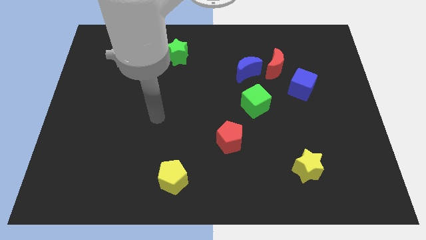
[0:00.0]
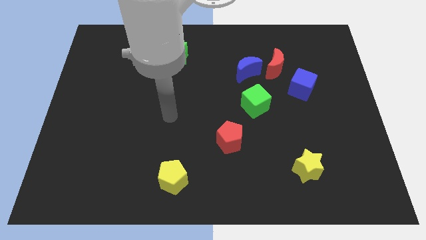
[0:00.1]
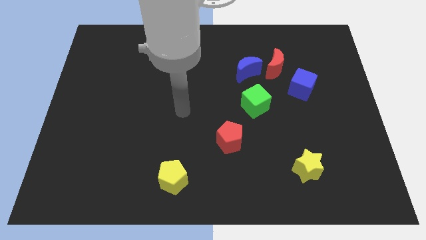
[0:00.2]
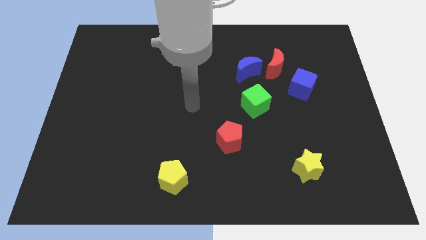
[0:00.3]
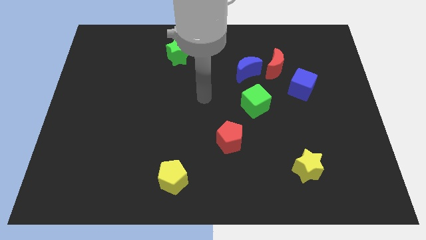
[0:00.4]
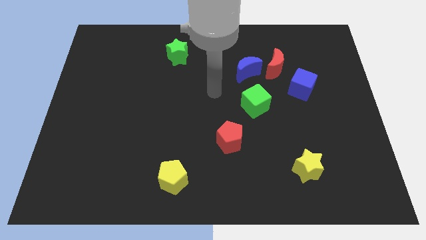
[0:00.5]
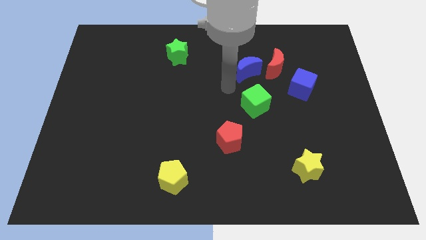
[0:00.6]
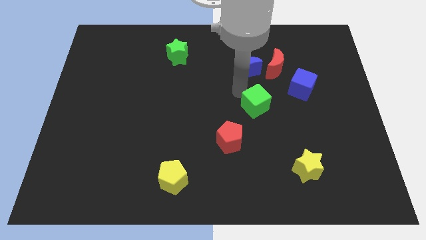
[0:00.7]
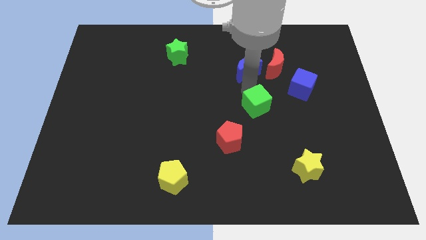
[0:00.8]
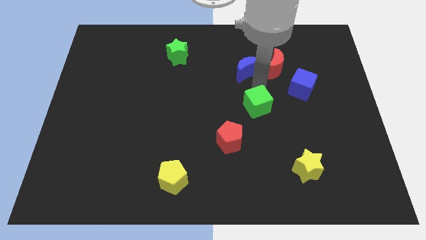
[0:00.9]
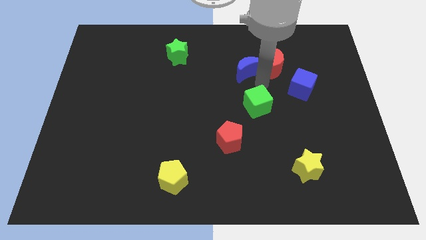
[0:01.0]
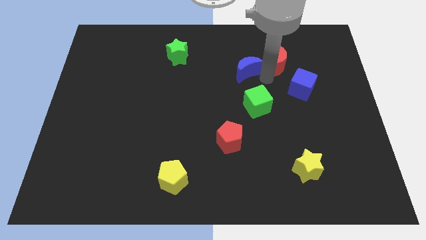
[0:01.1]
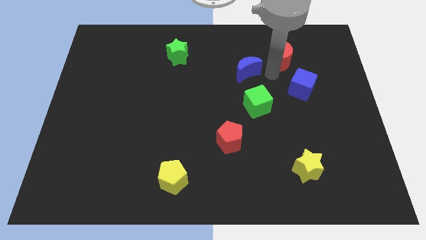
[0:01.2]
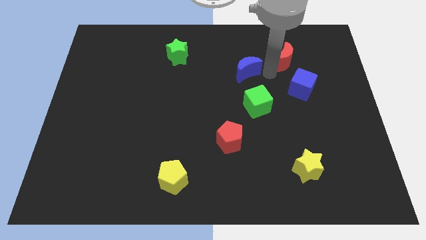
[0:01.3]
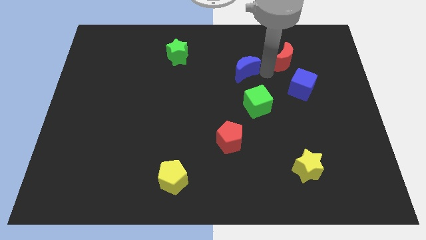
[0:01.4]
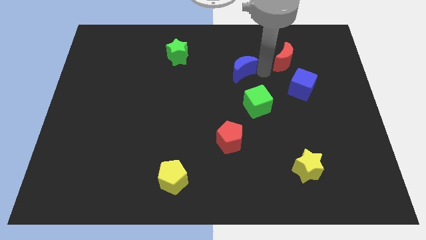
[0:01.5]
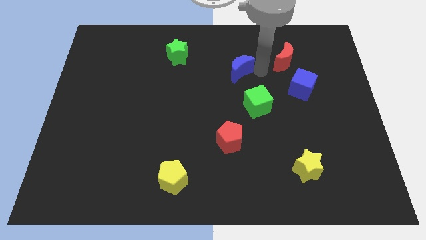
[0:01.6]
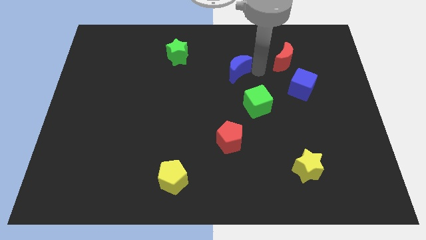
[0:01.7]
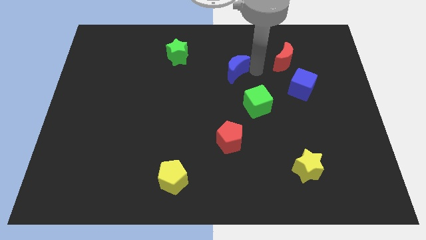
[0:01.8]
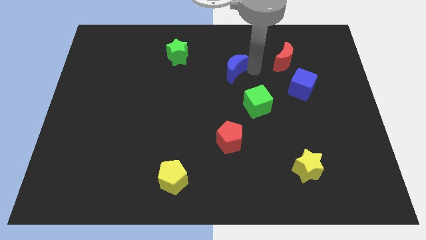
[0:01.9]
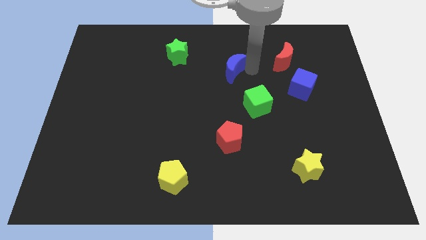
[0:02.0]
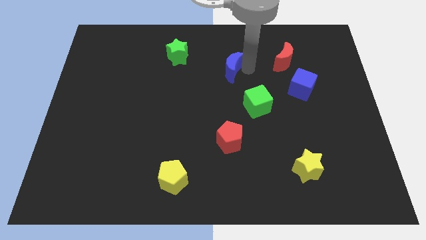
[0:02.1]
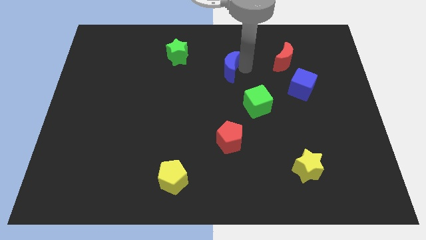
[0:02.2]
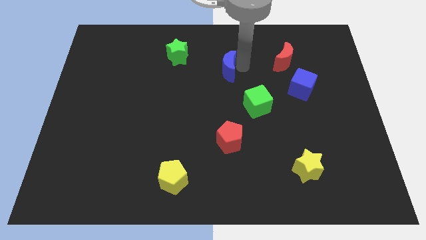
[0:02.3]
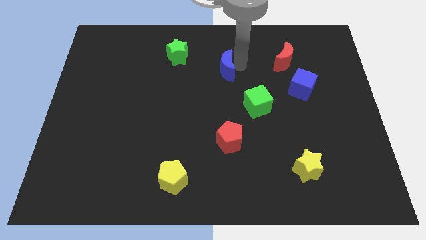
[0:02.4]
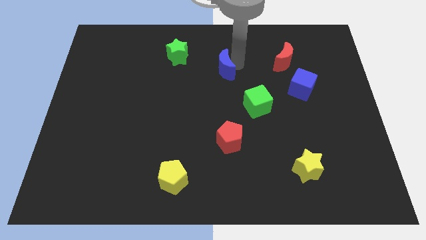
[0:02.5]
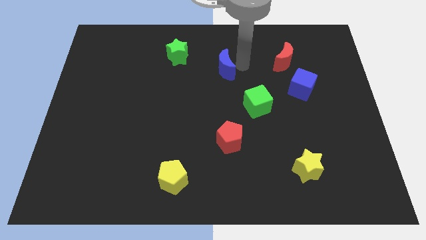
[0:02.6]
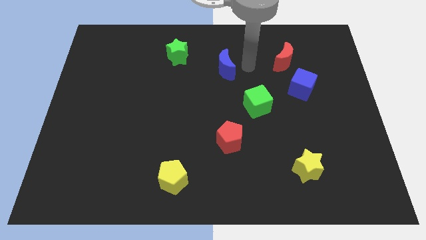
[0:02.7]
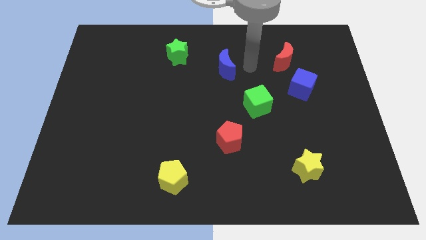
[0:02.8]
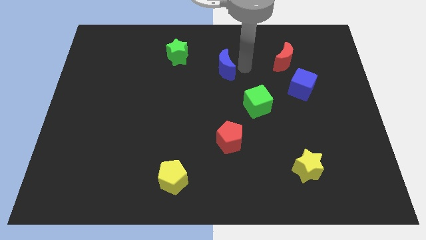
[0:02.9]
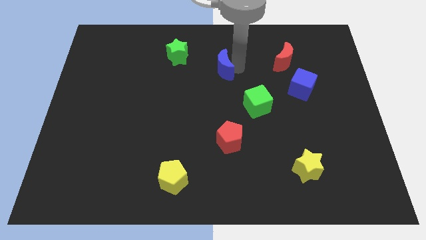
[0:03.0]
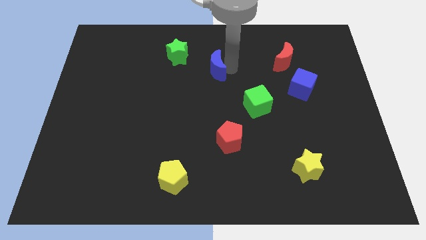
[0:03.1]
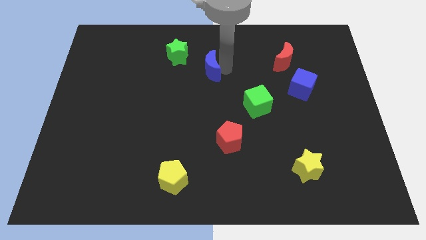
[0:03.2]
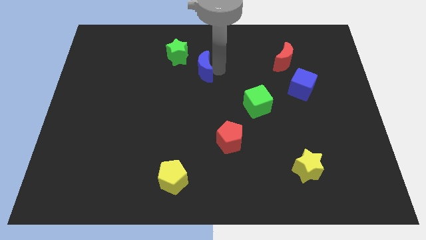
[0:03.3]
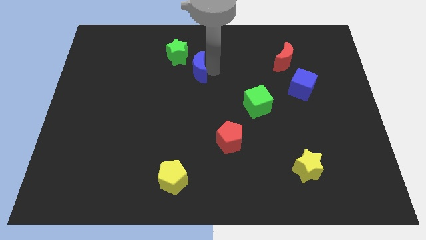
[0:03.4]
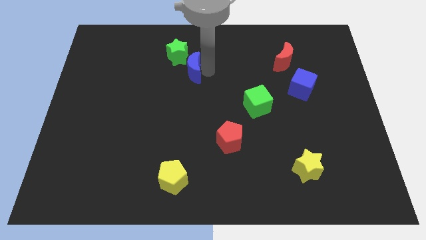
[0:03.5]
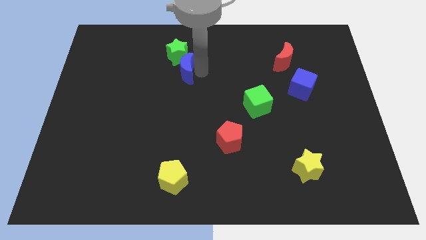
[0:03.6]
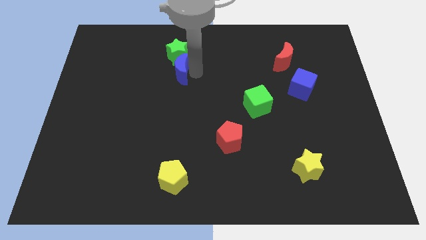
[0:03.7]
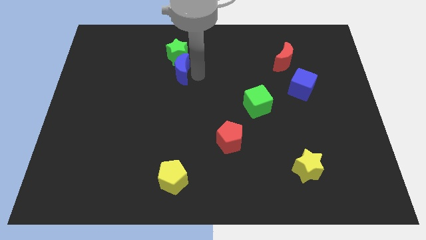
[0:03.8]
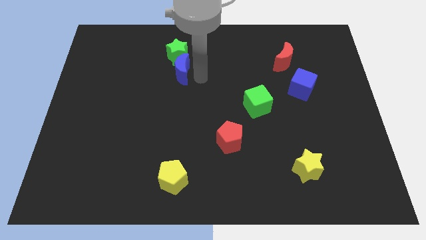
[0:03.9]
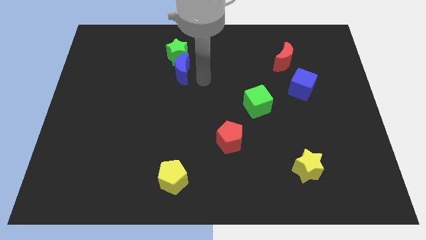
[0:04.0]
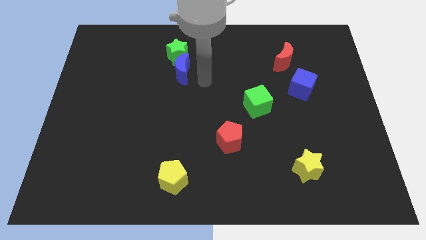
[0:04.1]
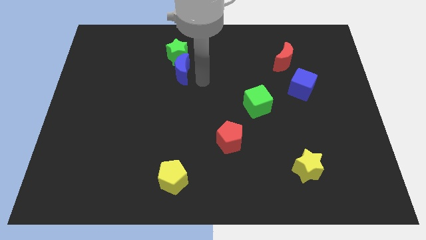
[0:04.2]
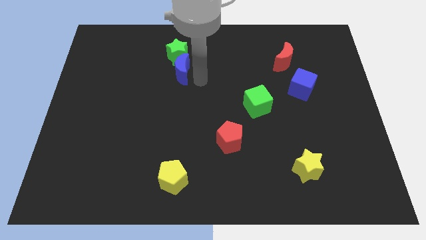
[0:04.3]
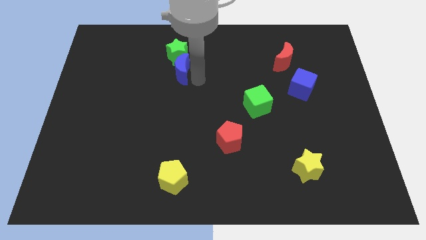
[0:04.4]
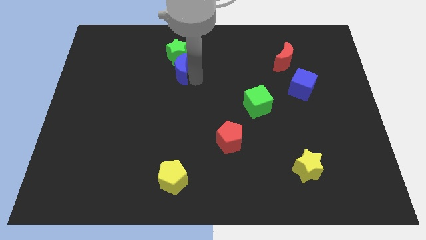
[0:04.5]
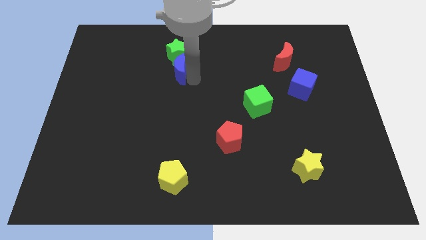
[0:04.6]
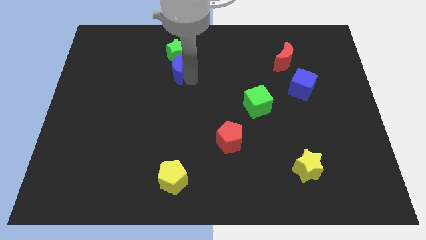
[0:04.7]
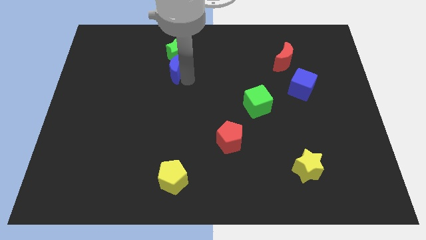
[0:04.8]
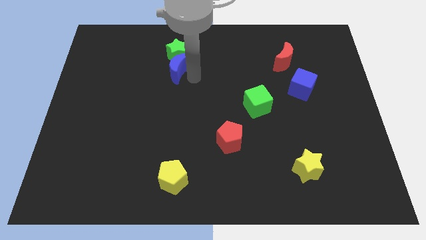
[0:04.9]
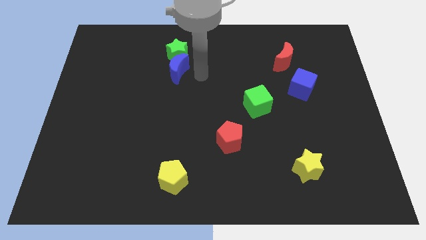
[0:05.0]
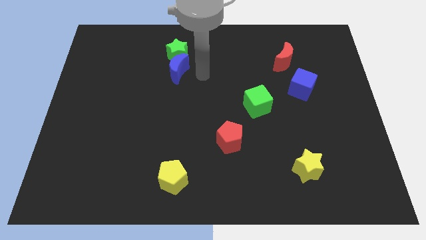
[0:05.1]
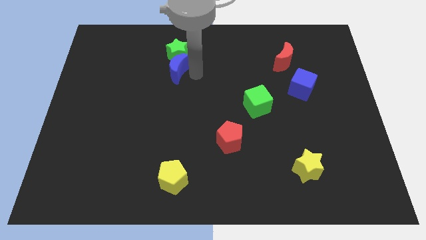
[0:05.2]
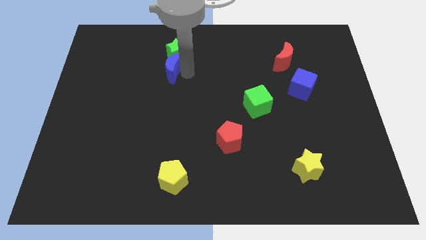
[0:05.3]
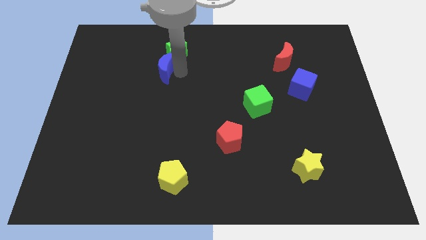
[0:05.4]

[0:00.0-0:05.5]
slide the blue moon left

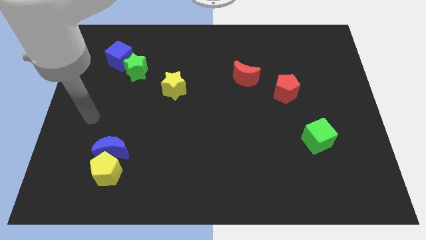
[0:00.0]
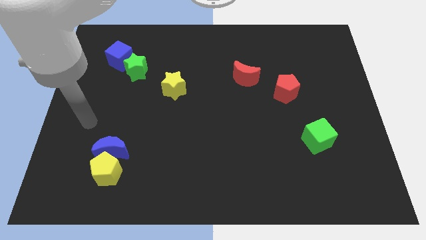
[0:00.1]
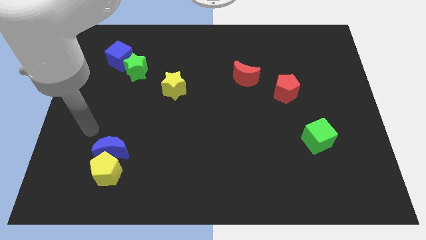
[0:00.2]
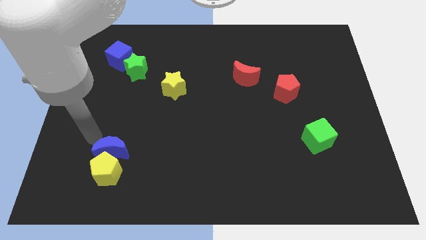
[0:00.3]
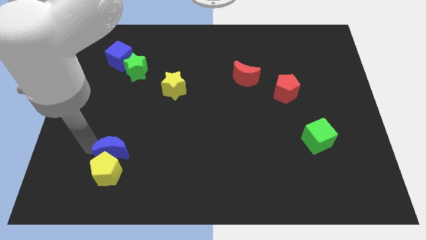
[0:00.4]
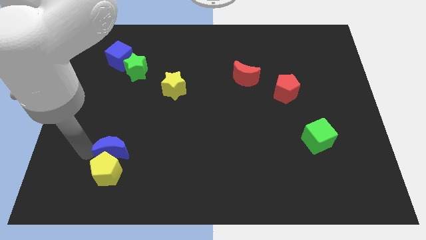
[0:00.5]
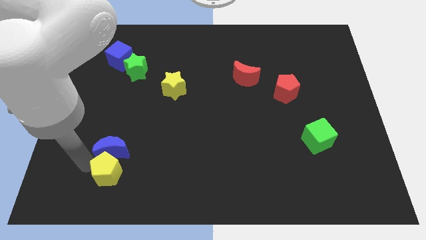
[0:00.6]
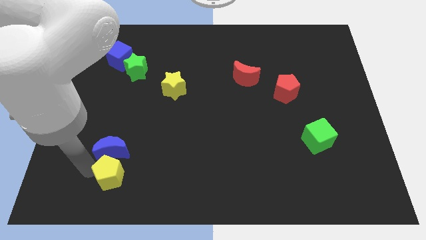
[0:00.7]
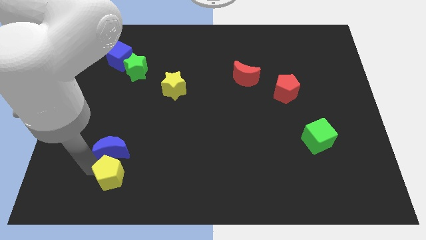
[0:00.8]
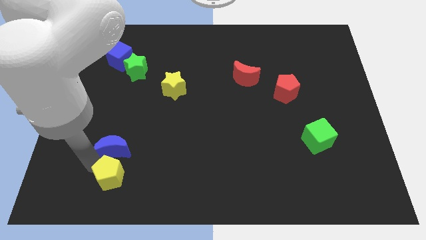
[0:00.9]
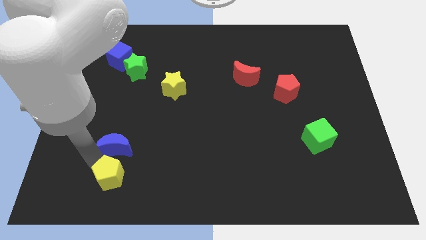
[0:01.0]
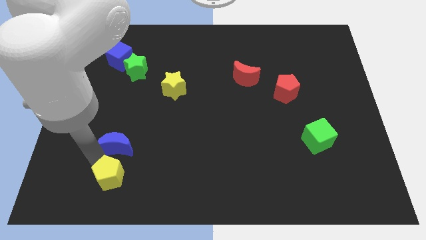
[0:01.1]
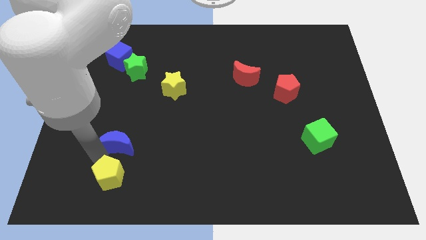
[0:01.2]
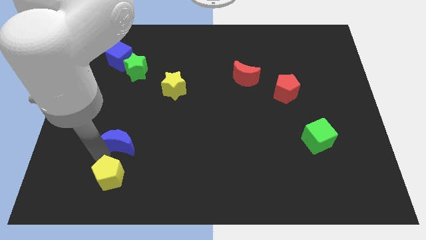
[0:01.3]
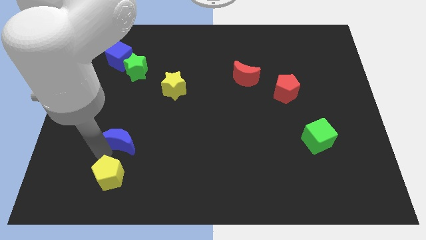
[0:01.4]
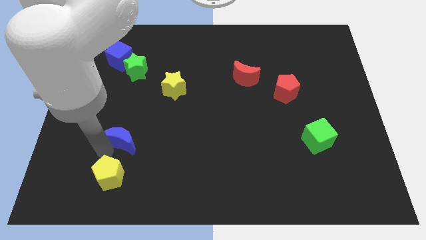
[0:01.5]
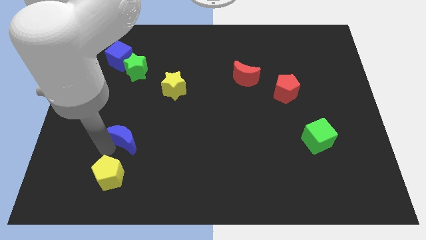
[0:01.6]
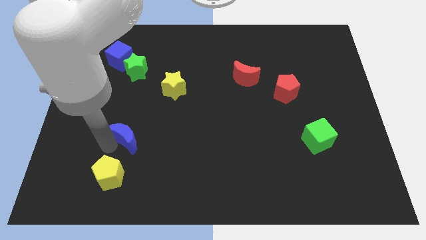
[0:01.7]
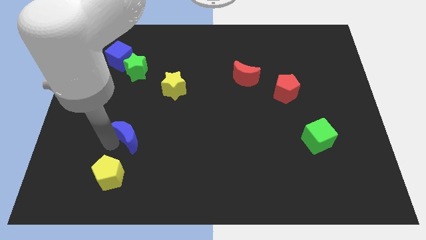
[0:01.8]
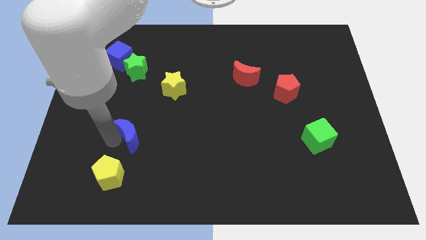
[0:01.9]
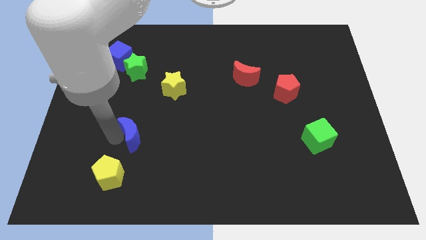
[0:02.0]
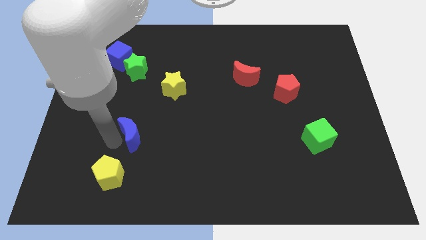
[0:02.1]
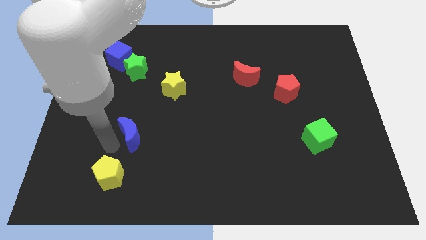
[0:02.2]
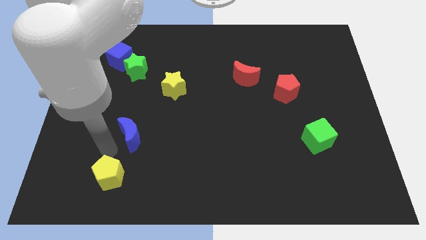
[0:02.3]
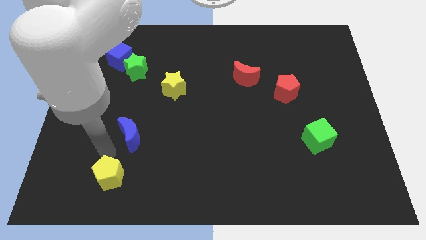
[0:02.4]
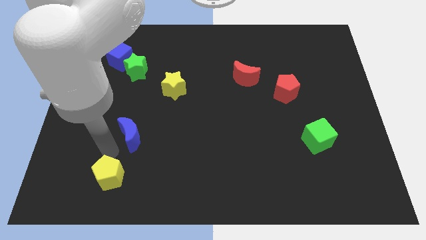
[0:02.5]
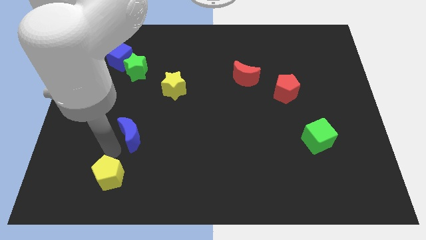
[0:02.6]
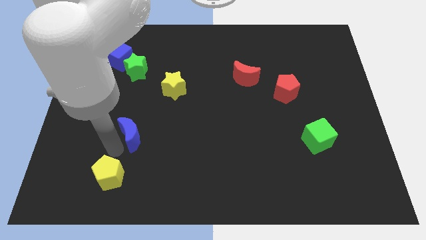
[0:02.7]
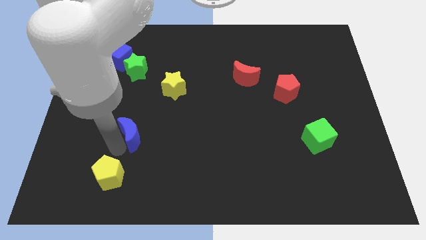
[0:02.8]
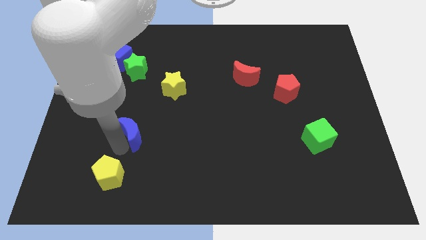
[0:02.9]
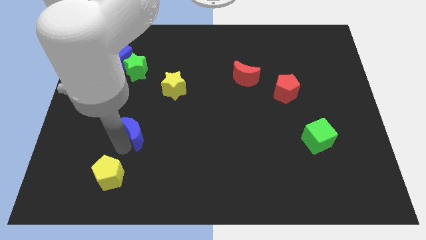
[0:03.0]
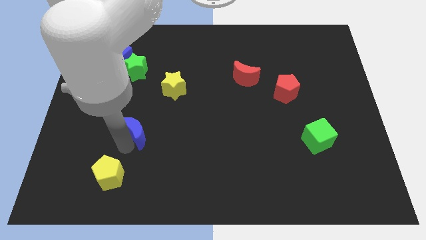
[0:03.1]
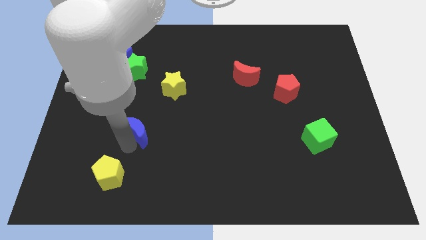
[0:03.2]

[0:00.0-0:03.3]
push the blue moon upwards and right diagonally somewhat
